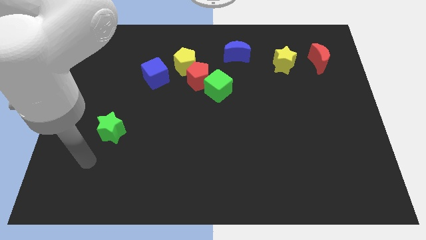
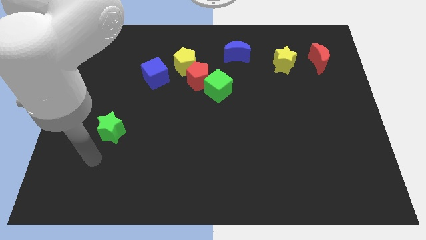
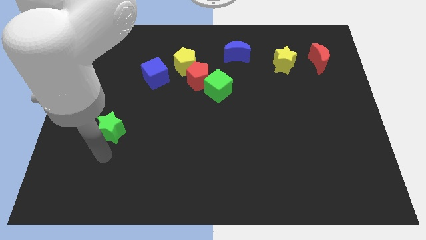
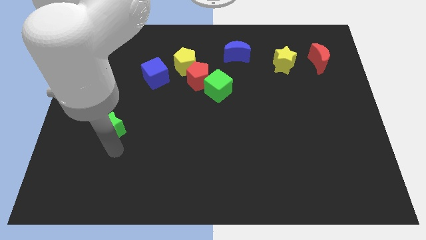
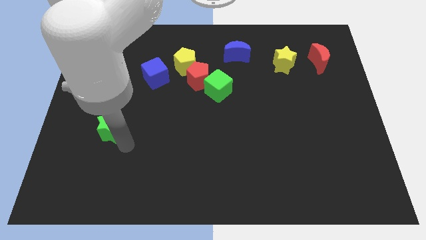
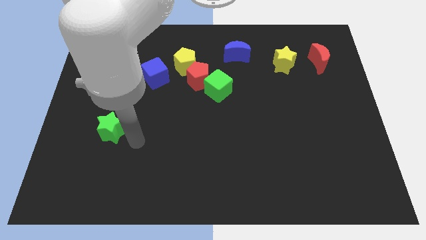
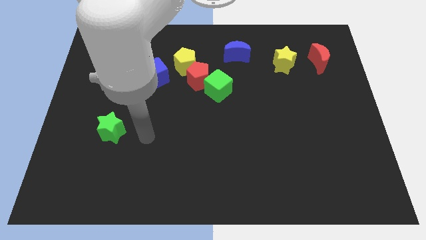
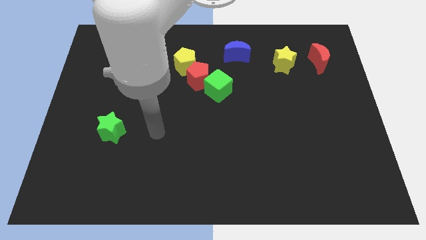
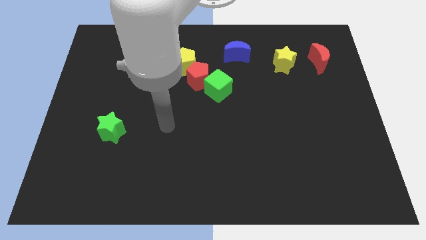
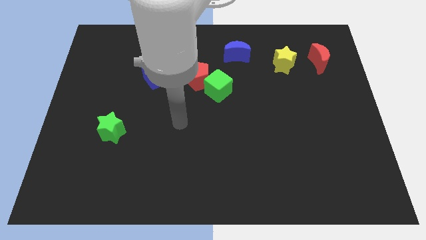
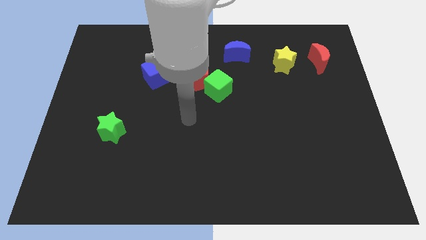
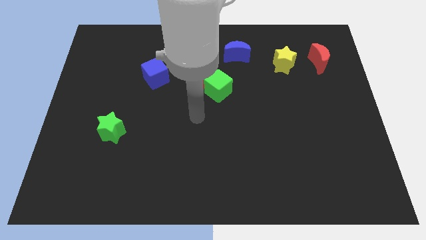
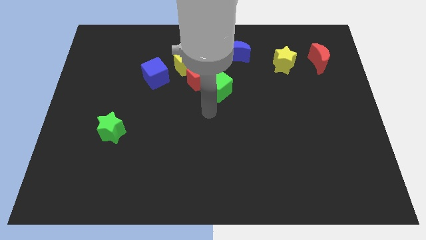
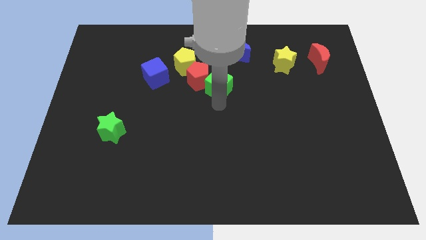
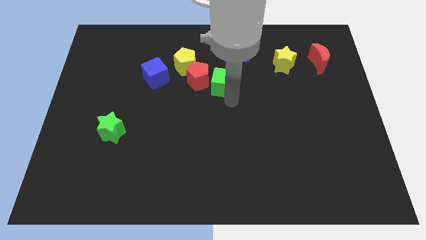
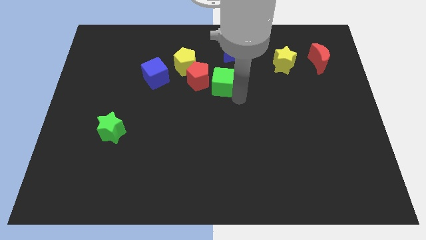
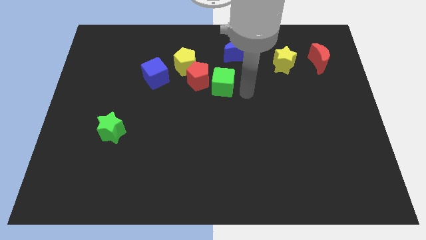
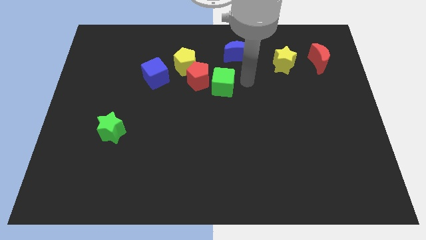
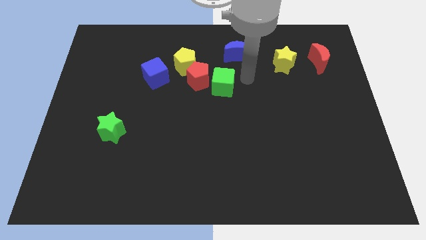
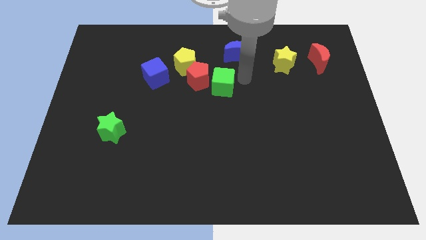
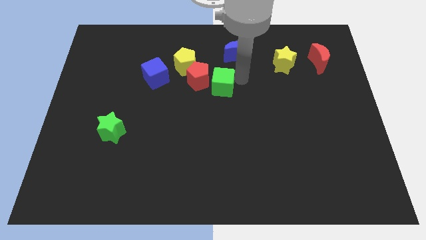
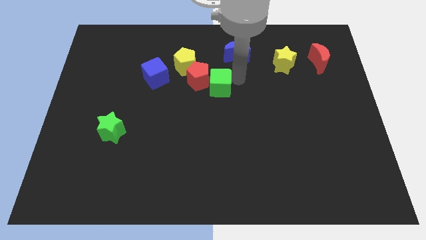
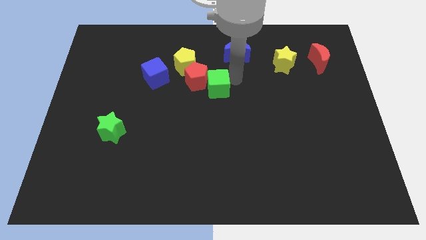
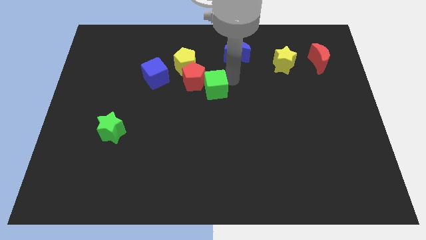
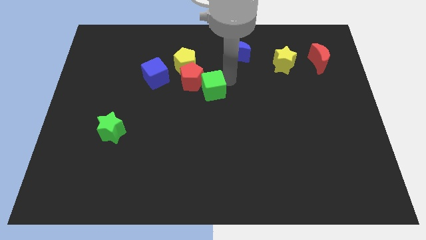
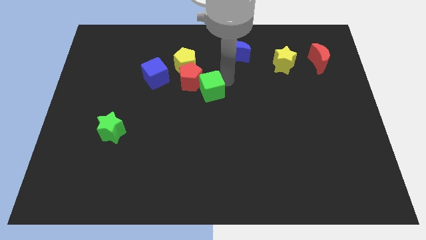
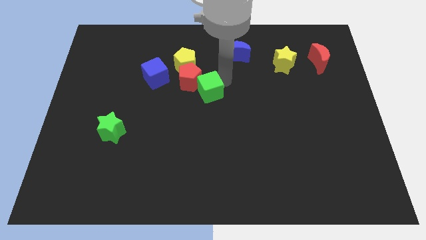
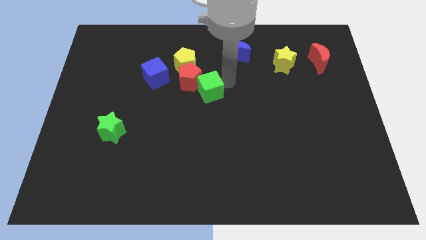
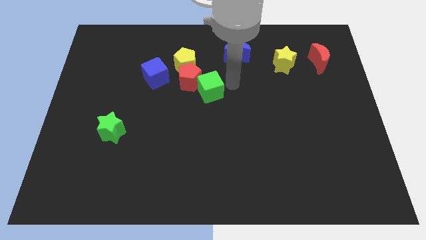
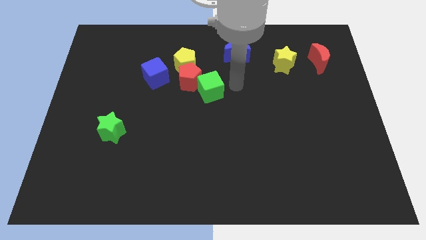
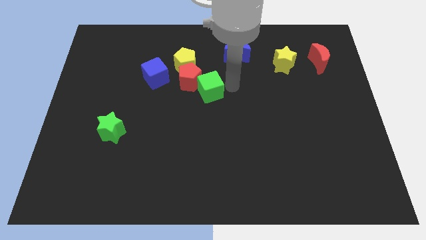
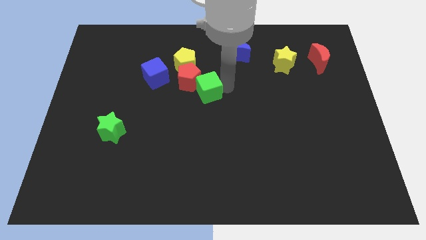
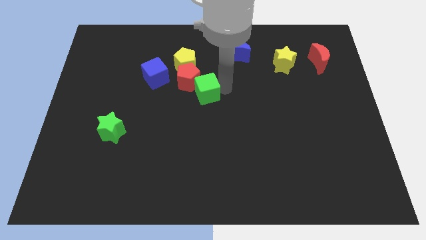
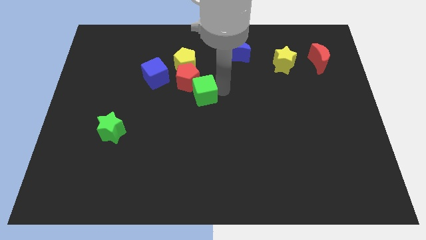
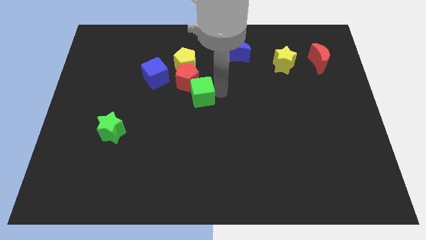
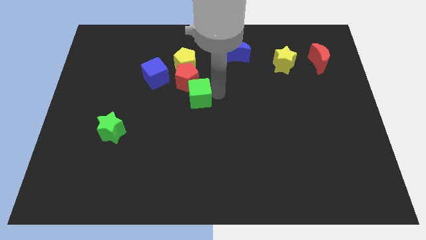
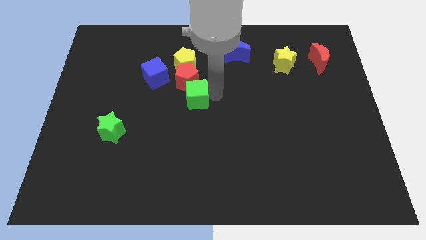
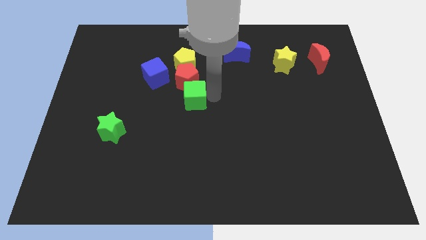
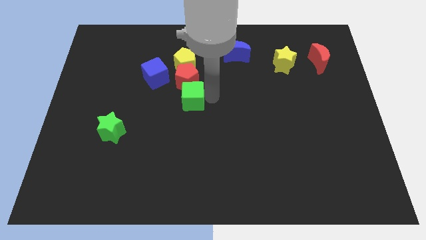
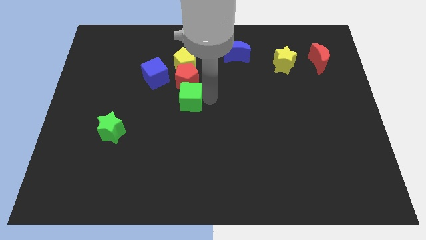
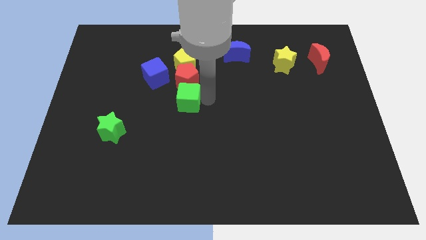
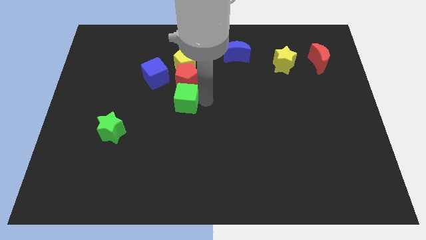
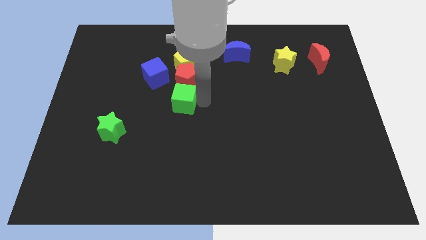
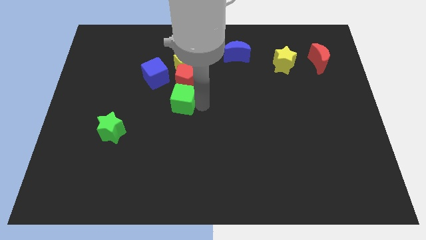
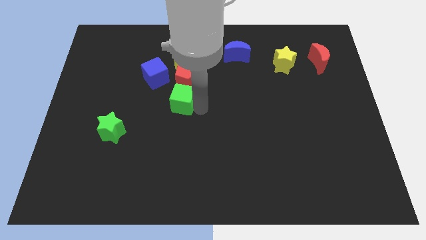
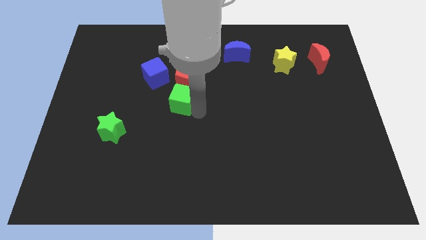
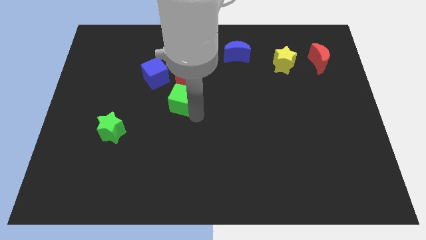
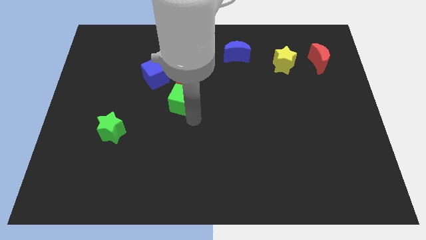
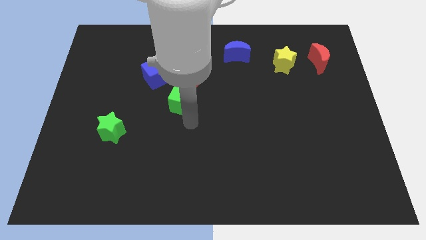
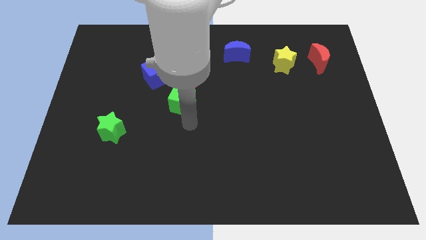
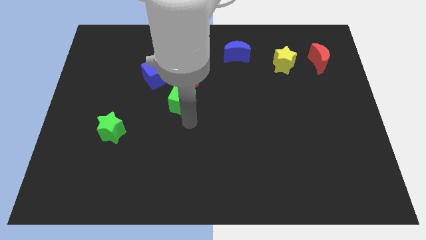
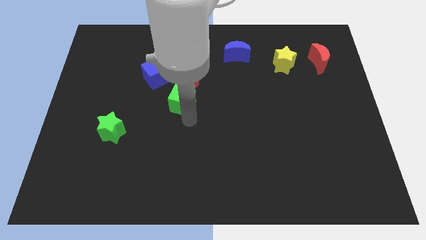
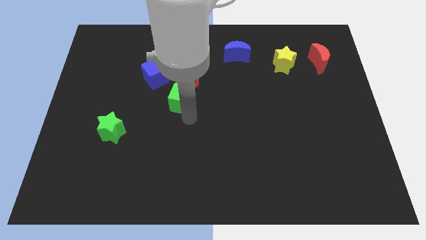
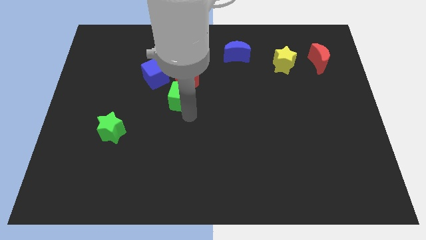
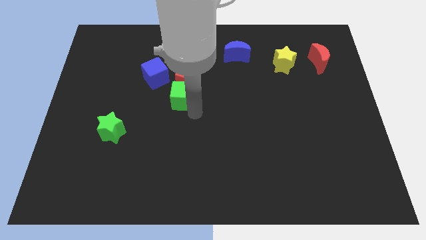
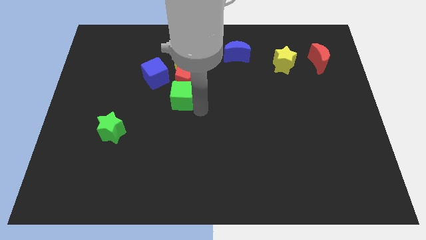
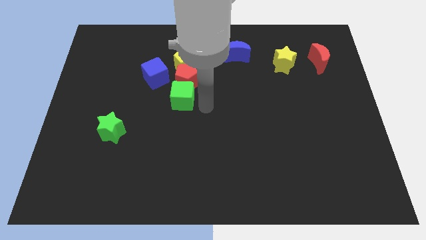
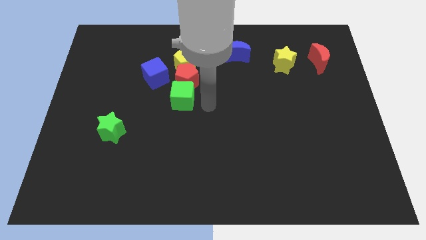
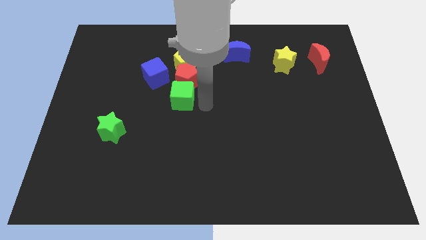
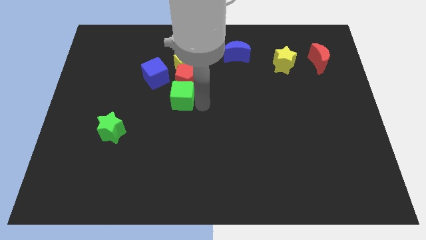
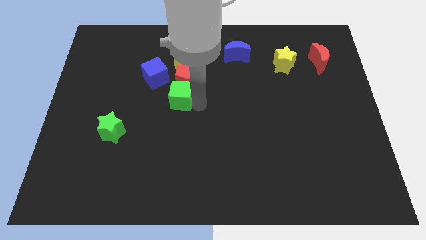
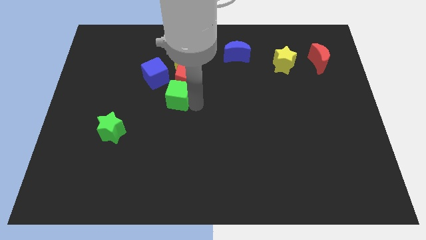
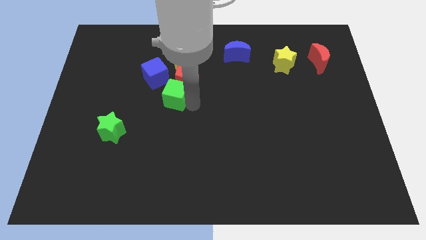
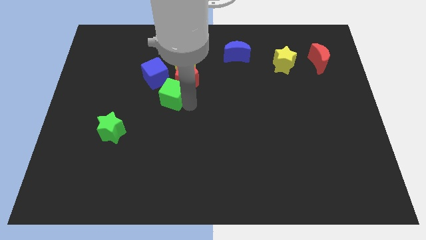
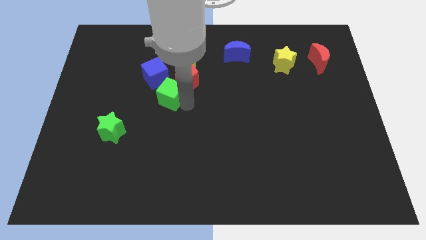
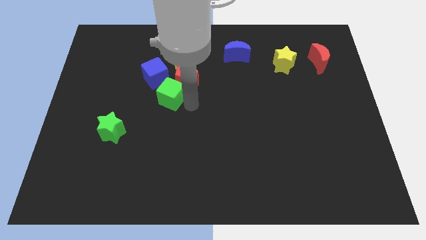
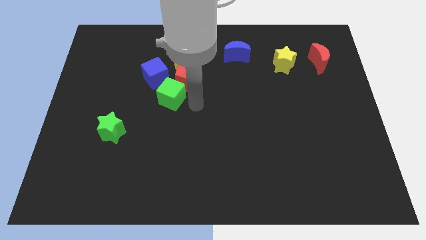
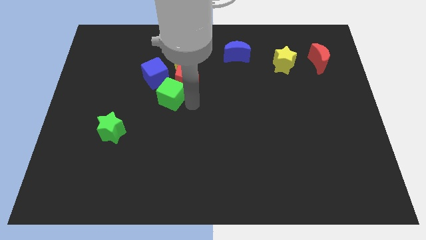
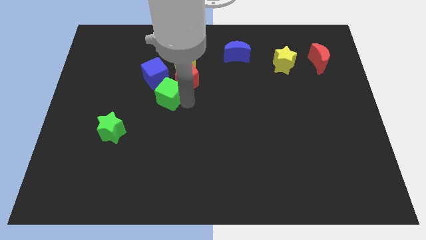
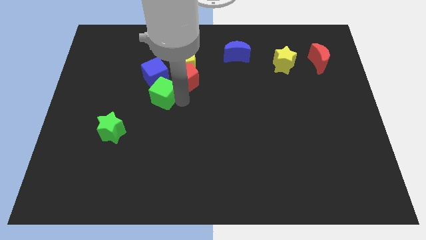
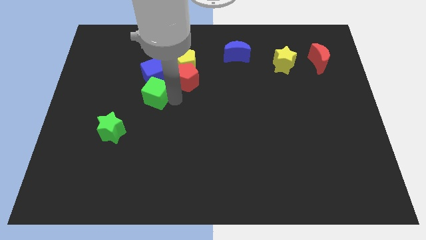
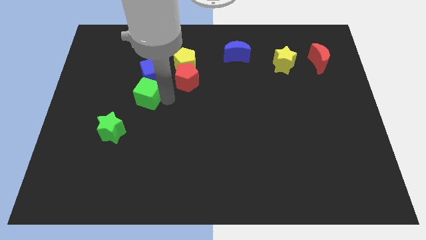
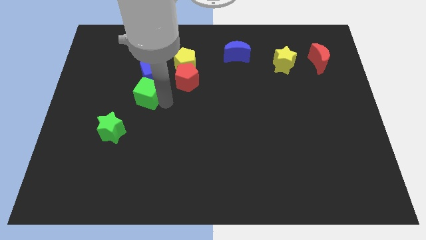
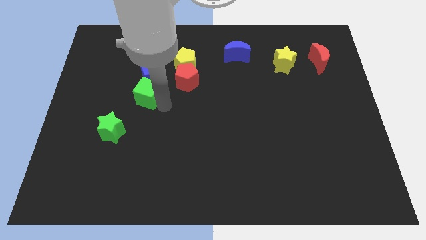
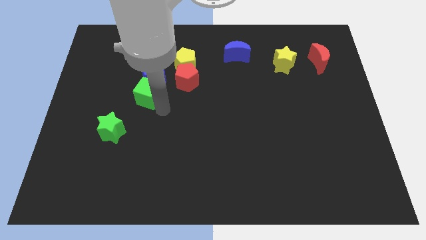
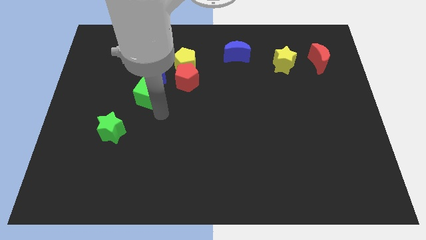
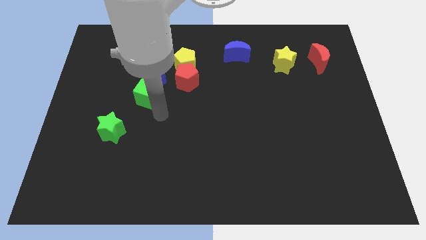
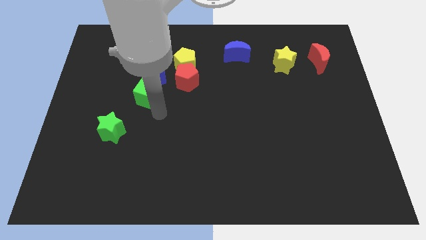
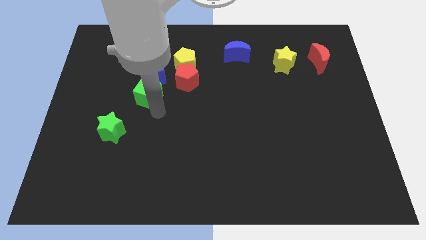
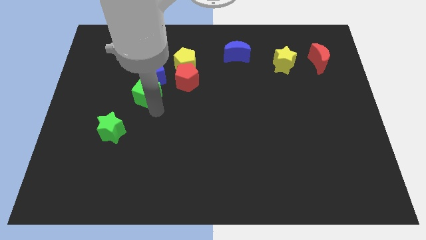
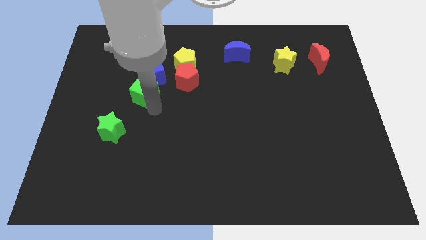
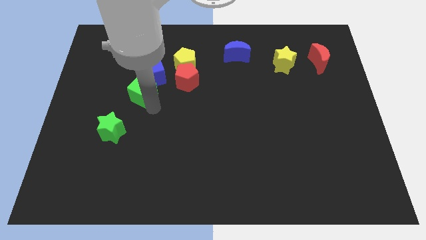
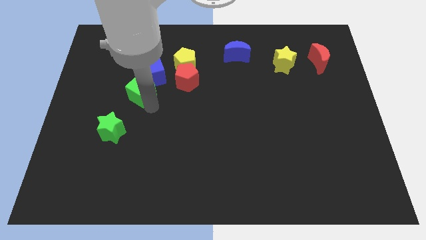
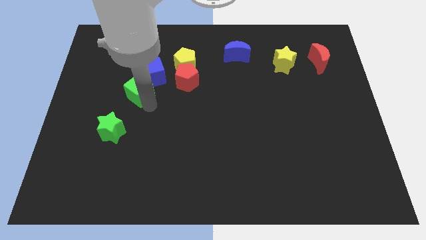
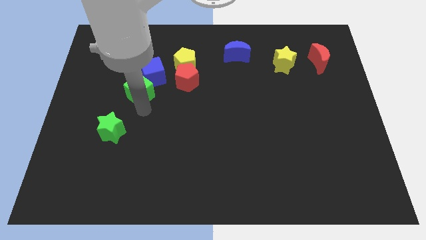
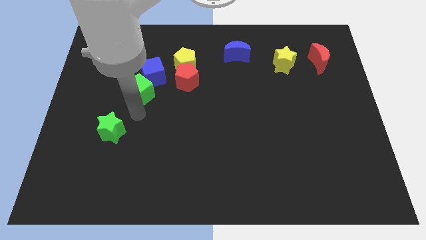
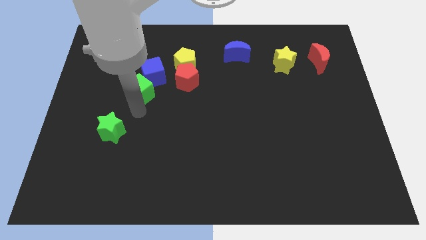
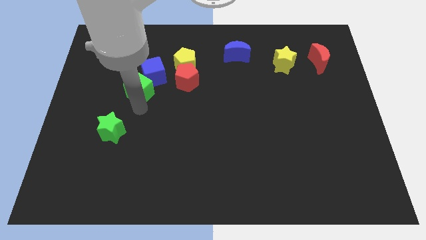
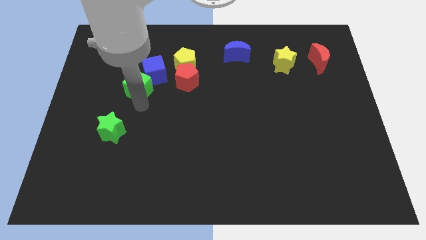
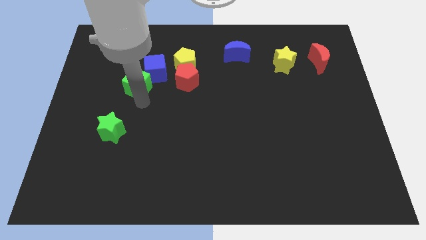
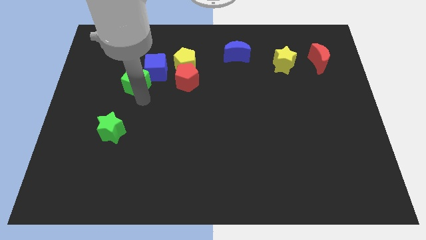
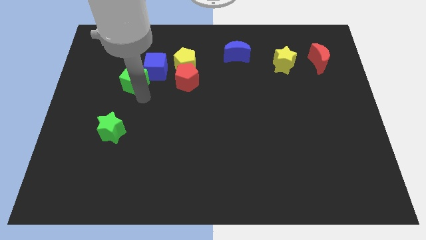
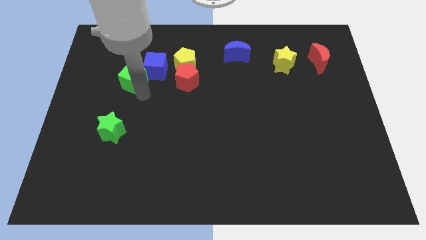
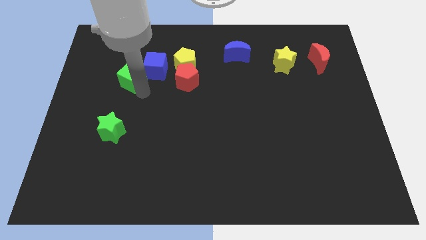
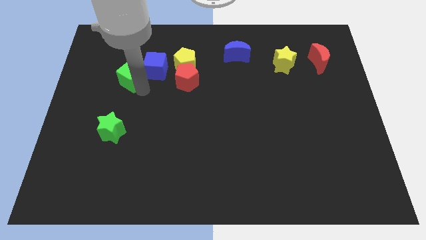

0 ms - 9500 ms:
push the green cube left of the yellow pentagon
